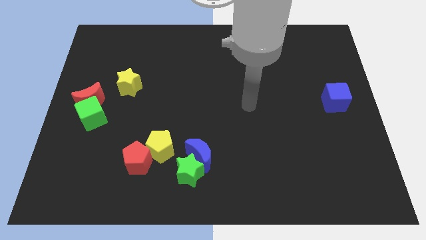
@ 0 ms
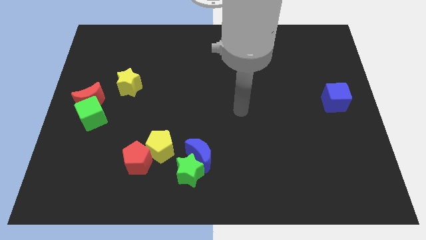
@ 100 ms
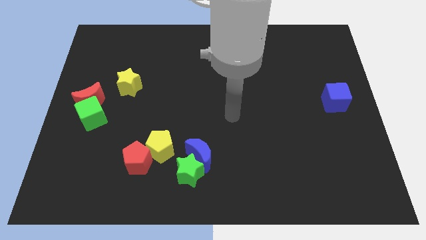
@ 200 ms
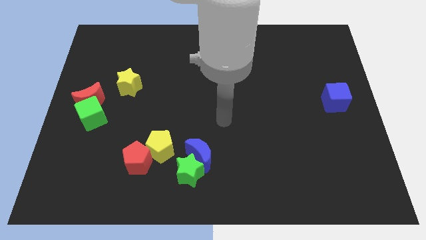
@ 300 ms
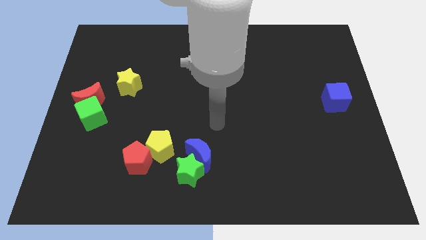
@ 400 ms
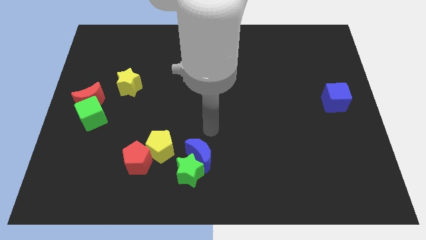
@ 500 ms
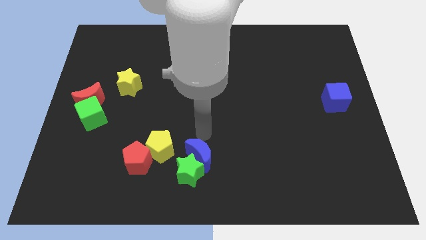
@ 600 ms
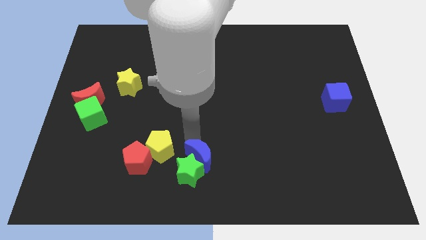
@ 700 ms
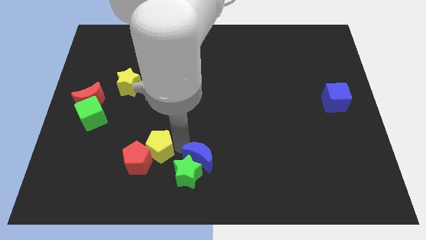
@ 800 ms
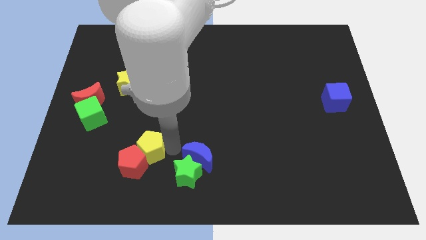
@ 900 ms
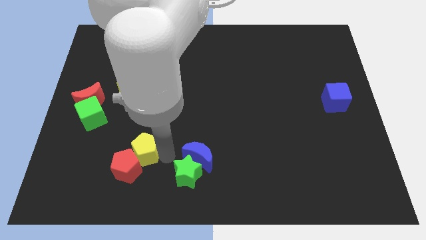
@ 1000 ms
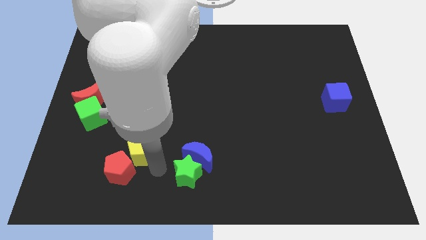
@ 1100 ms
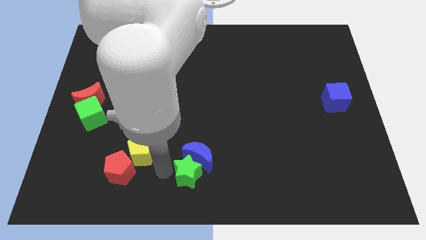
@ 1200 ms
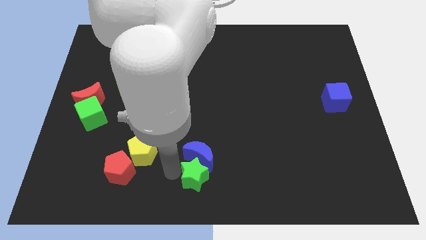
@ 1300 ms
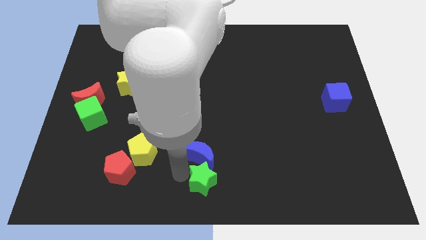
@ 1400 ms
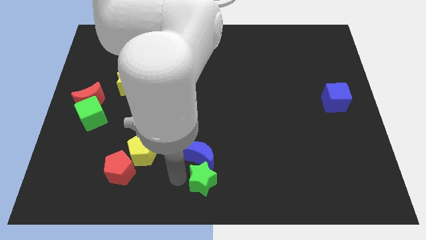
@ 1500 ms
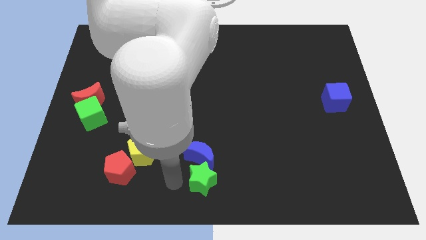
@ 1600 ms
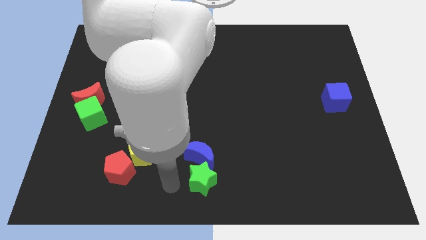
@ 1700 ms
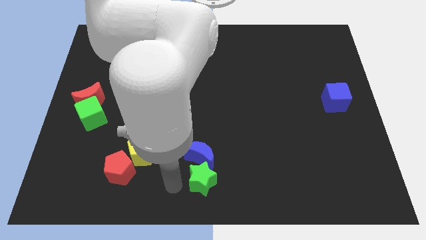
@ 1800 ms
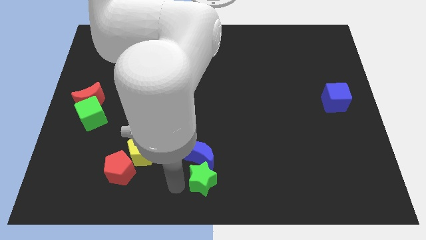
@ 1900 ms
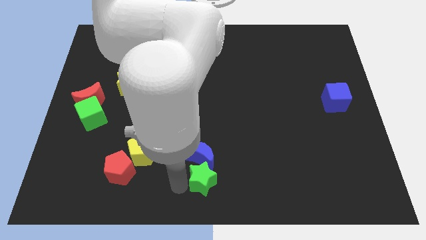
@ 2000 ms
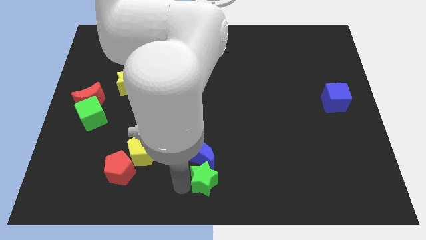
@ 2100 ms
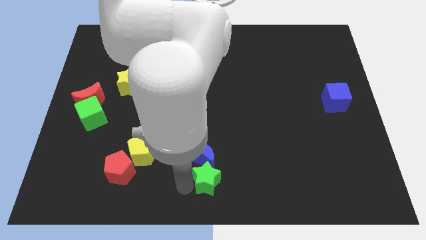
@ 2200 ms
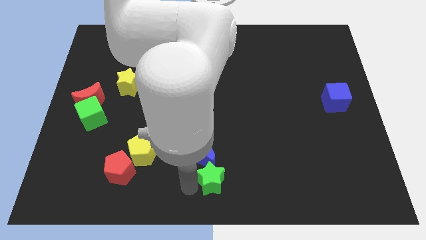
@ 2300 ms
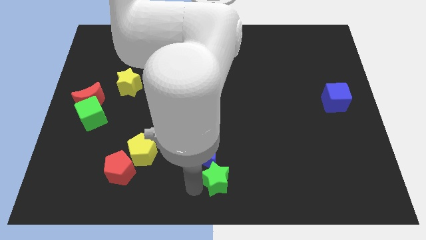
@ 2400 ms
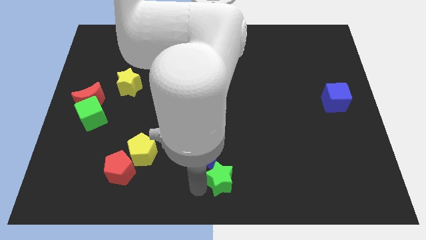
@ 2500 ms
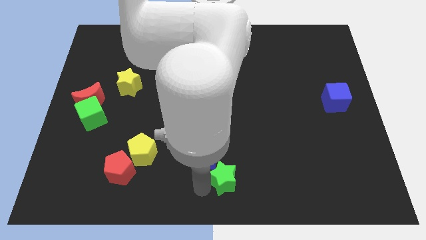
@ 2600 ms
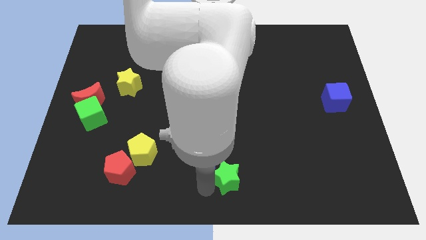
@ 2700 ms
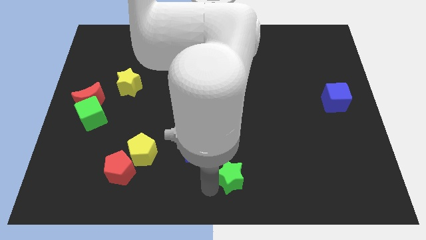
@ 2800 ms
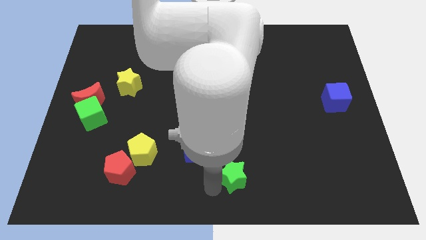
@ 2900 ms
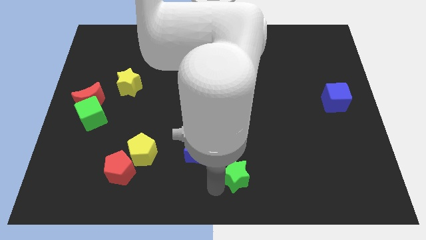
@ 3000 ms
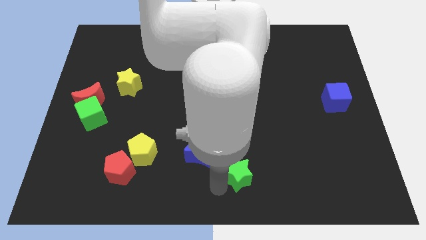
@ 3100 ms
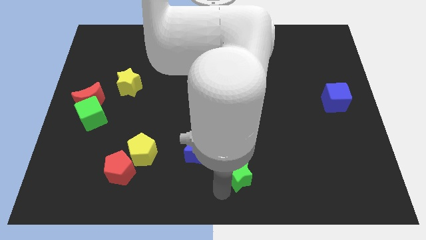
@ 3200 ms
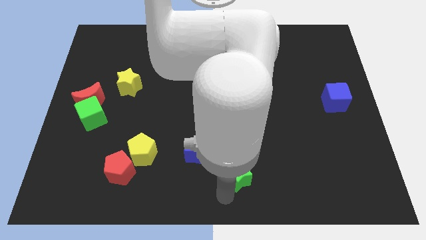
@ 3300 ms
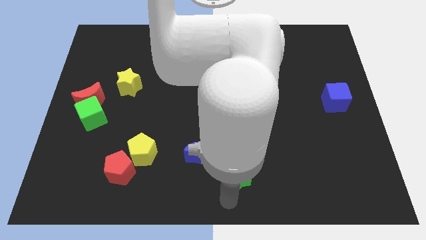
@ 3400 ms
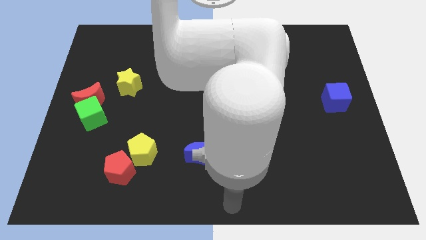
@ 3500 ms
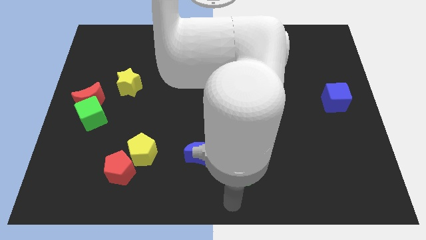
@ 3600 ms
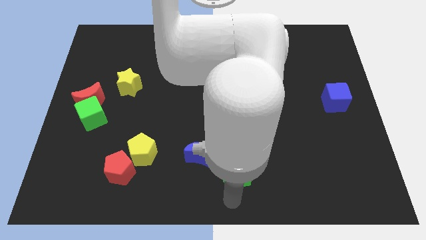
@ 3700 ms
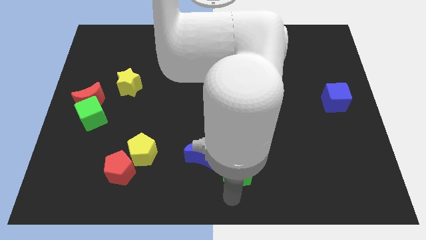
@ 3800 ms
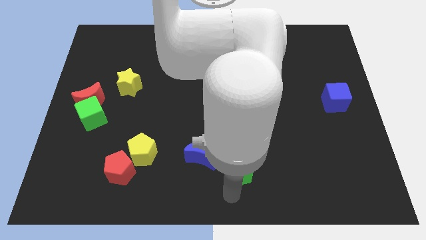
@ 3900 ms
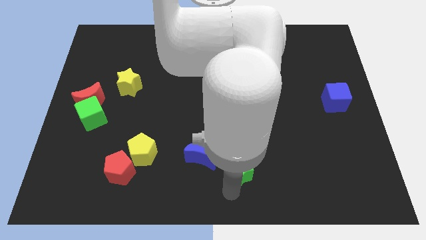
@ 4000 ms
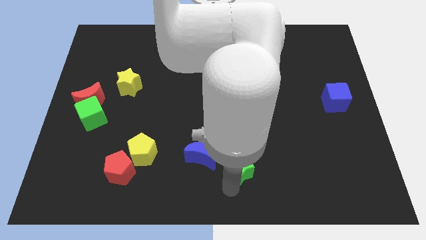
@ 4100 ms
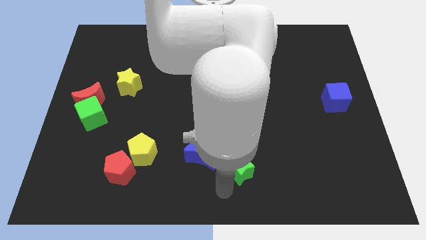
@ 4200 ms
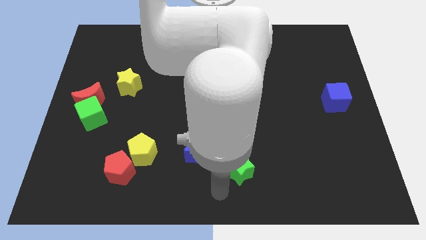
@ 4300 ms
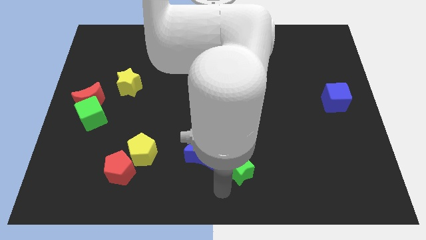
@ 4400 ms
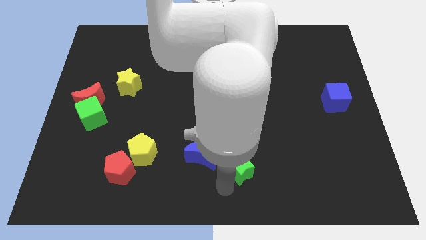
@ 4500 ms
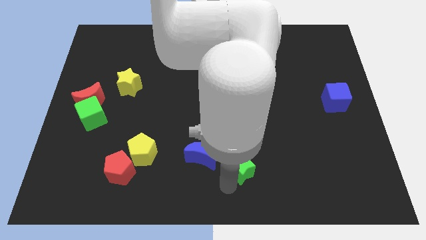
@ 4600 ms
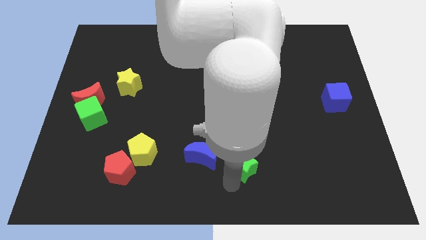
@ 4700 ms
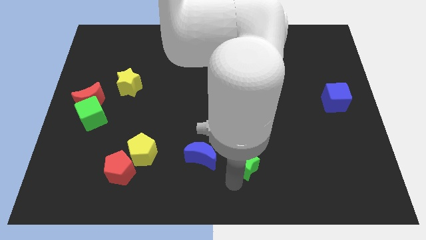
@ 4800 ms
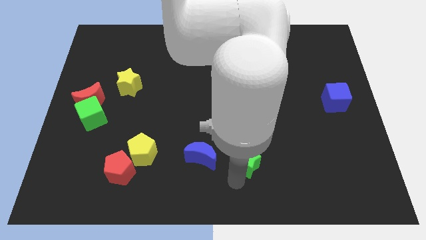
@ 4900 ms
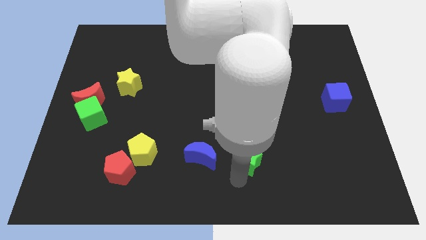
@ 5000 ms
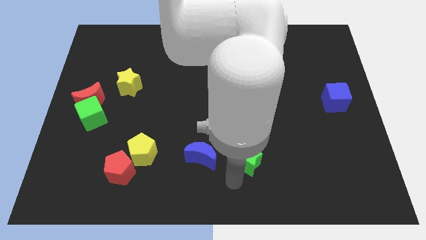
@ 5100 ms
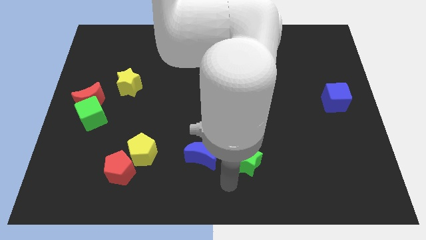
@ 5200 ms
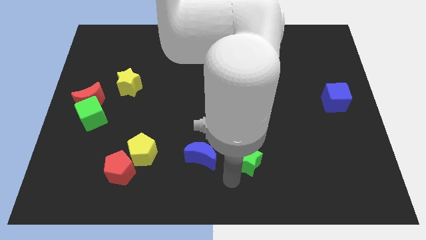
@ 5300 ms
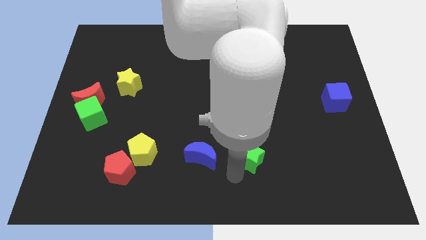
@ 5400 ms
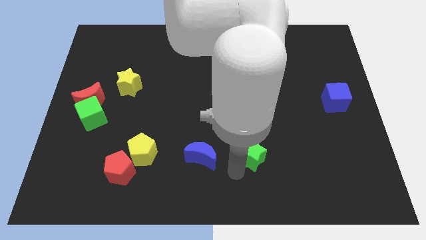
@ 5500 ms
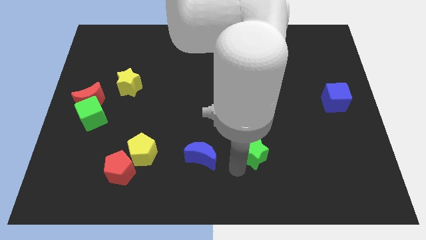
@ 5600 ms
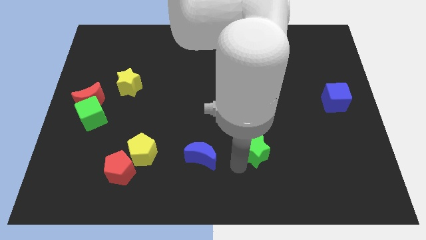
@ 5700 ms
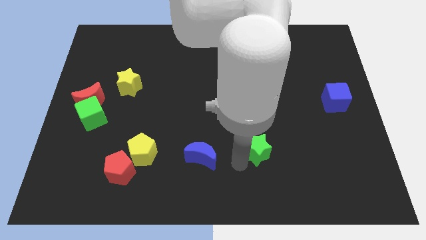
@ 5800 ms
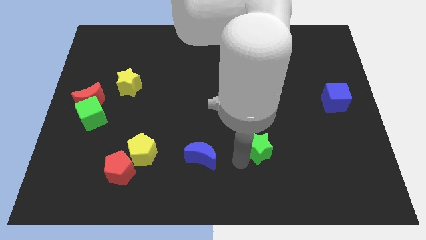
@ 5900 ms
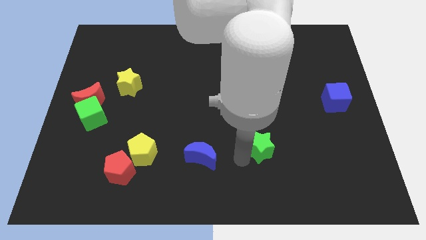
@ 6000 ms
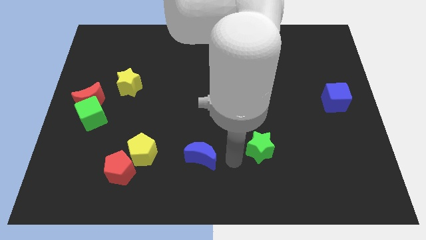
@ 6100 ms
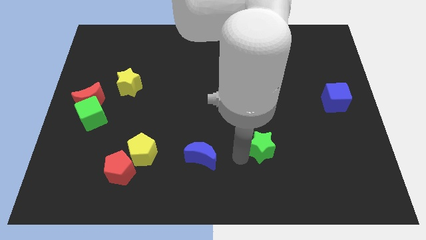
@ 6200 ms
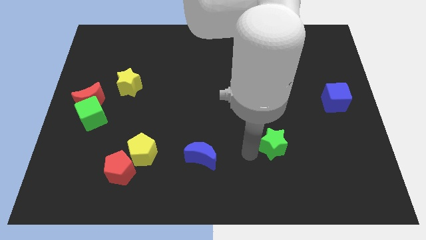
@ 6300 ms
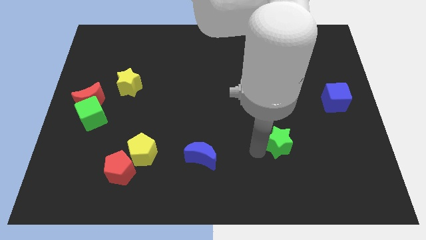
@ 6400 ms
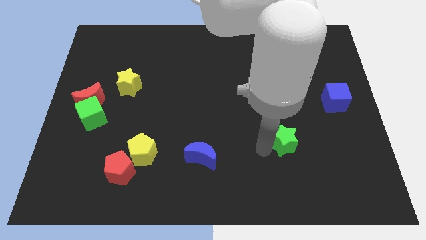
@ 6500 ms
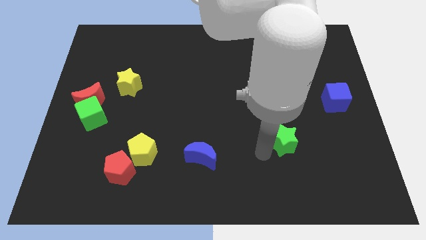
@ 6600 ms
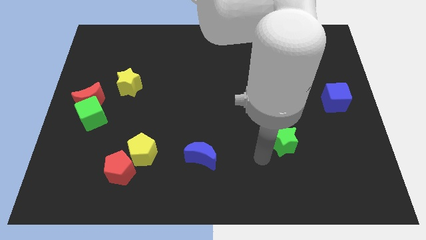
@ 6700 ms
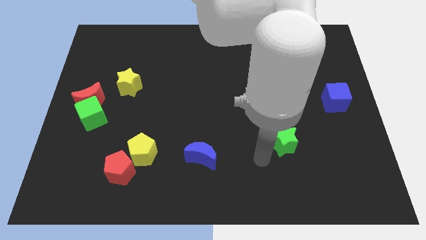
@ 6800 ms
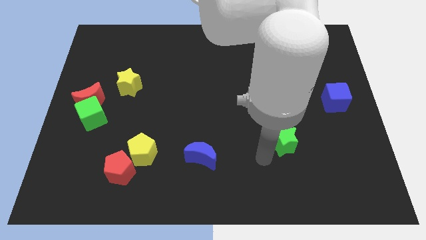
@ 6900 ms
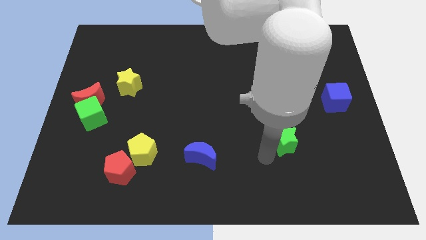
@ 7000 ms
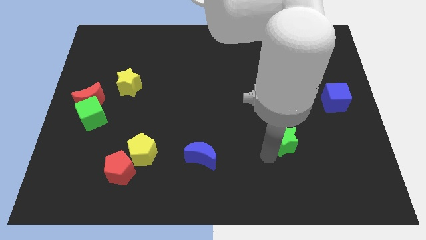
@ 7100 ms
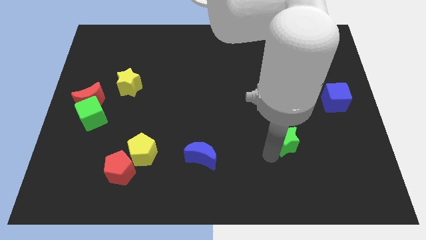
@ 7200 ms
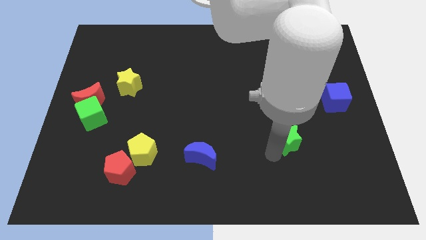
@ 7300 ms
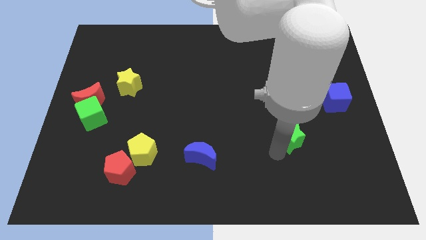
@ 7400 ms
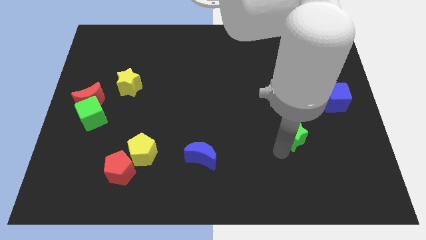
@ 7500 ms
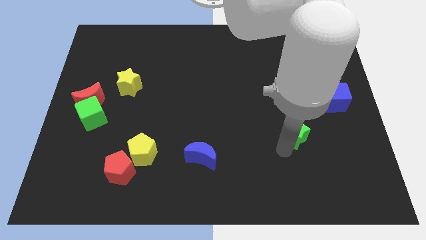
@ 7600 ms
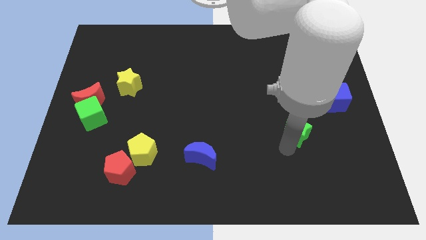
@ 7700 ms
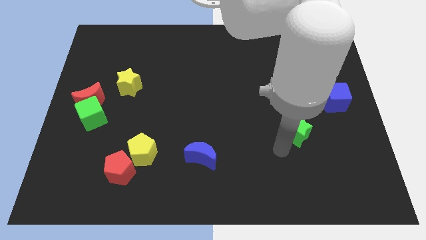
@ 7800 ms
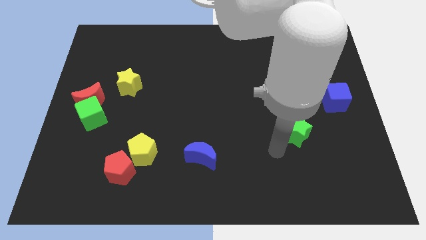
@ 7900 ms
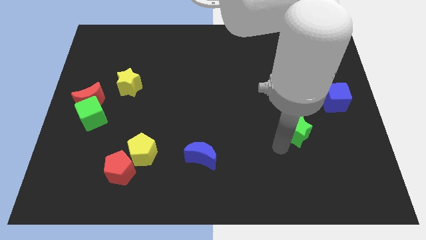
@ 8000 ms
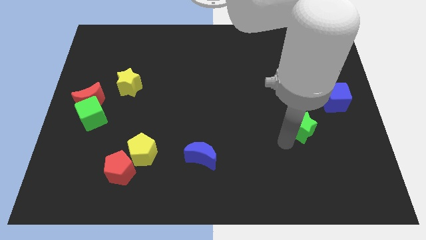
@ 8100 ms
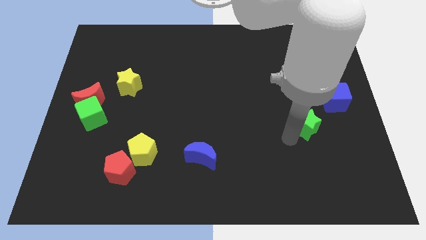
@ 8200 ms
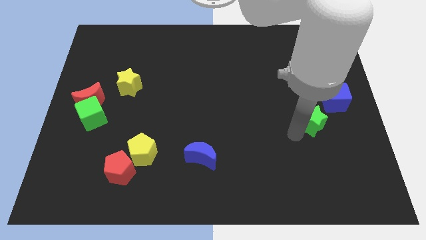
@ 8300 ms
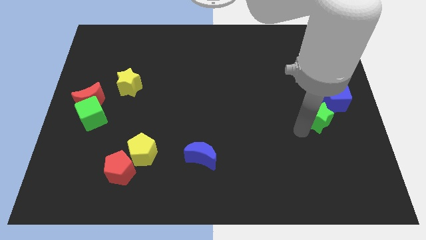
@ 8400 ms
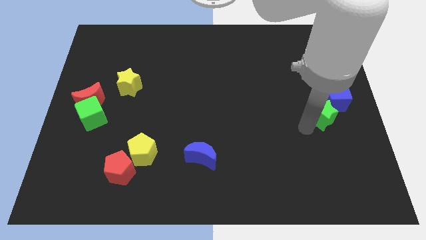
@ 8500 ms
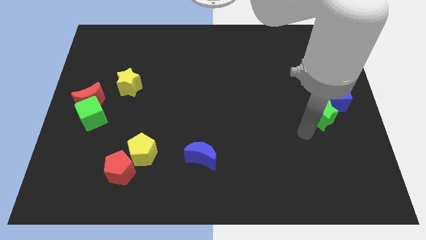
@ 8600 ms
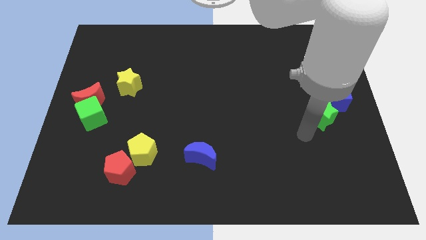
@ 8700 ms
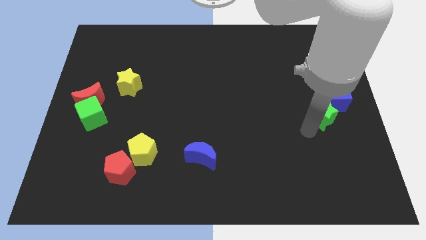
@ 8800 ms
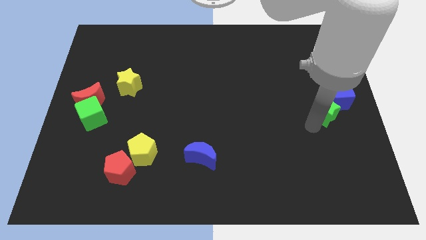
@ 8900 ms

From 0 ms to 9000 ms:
put the green star towards the blue cube
